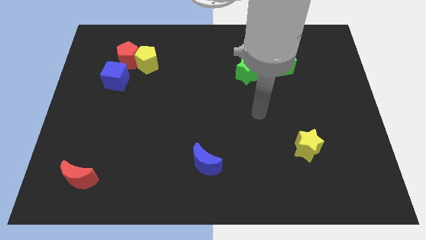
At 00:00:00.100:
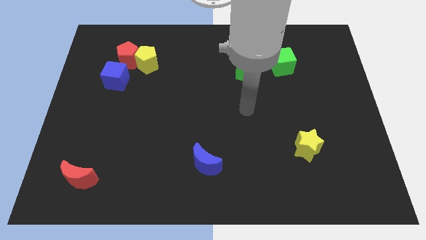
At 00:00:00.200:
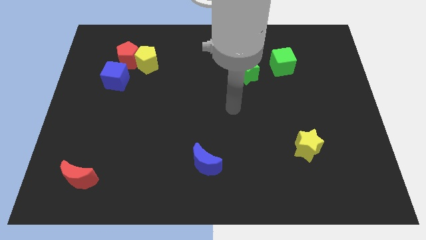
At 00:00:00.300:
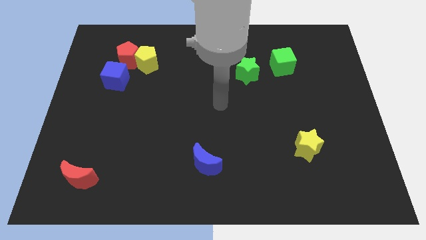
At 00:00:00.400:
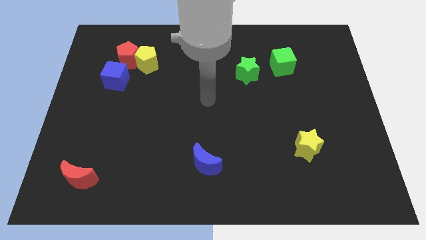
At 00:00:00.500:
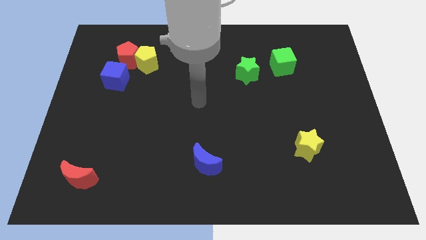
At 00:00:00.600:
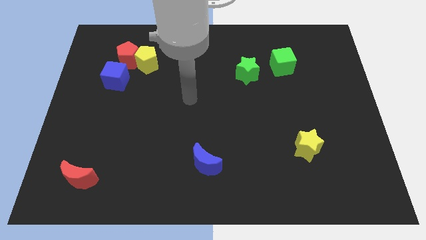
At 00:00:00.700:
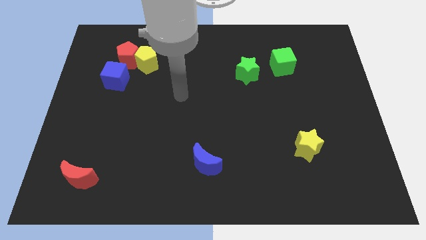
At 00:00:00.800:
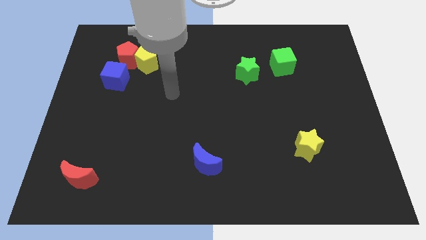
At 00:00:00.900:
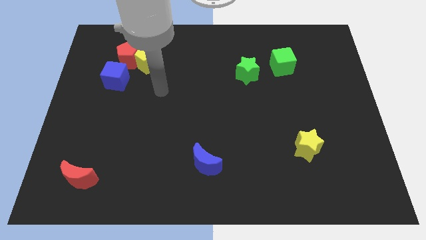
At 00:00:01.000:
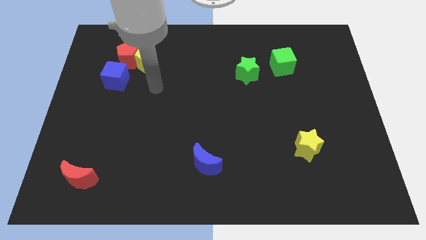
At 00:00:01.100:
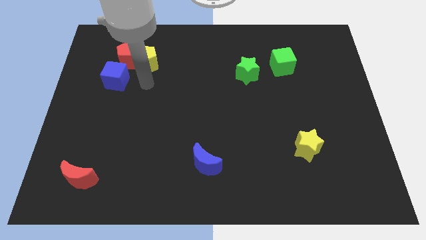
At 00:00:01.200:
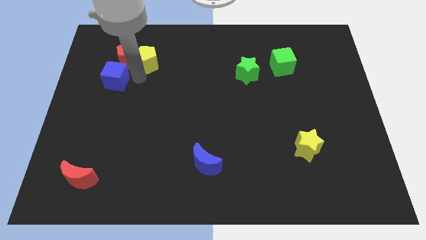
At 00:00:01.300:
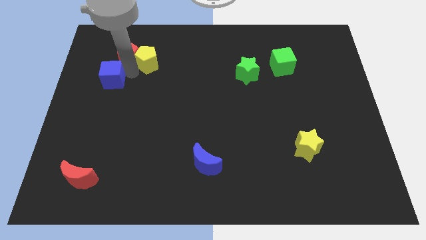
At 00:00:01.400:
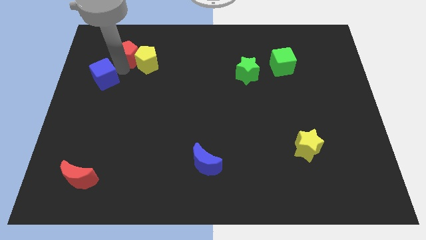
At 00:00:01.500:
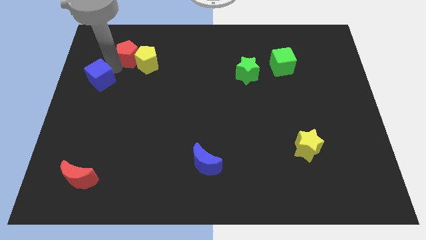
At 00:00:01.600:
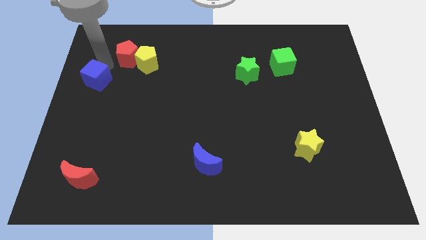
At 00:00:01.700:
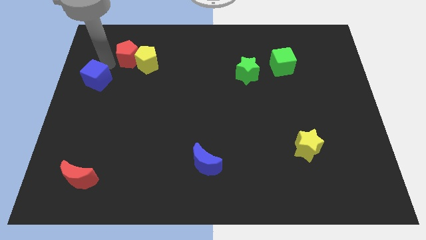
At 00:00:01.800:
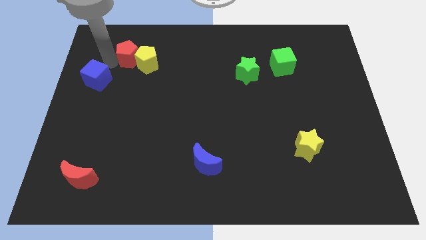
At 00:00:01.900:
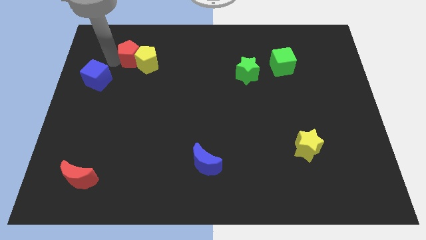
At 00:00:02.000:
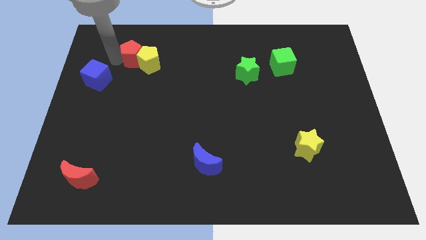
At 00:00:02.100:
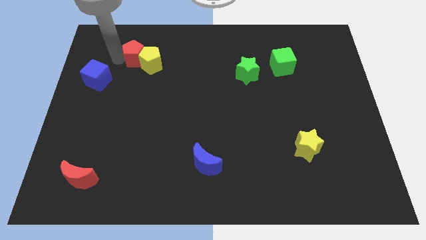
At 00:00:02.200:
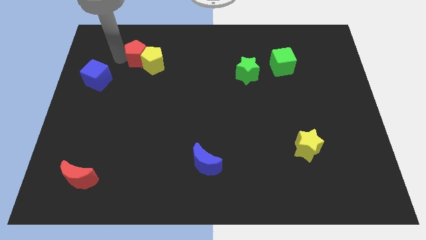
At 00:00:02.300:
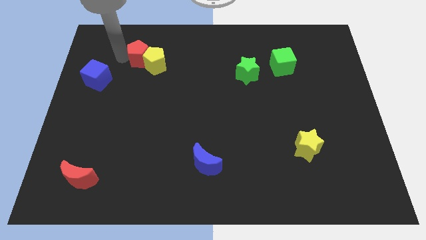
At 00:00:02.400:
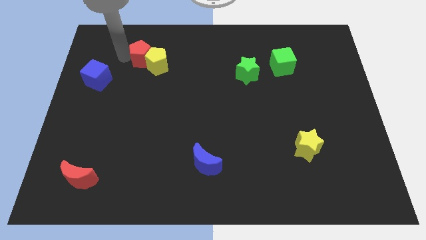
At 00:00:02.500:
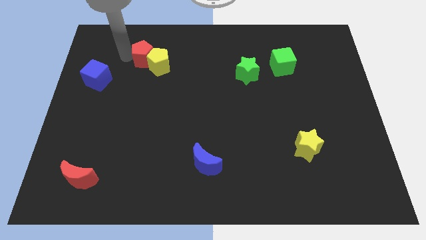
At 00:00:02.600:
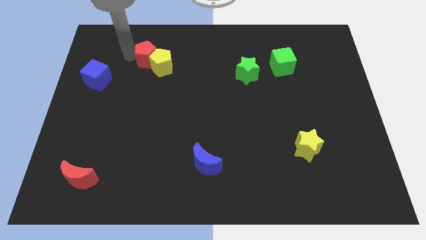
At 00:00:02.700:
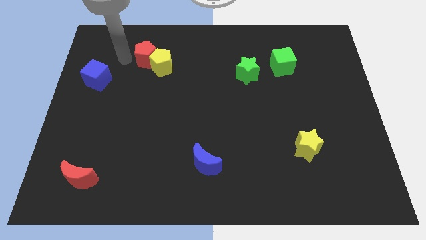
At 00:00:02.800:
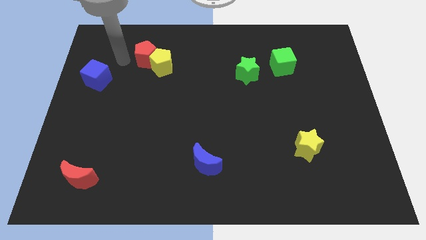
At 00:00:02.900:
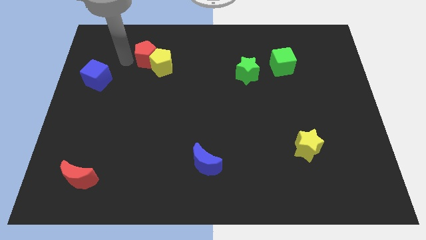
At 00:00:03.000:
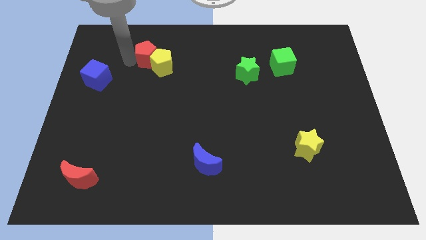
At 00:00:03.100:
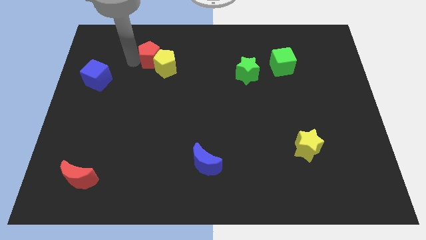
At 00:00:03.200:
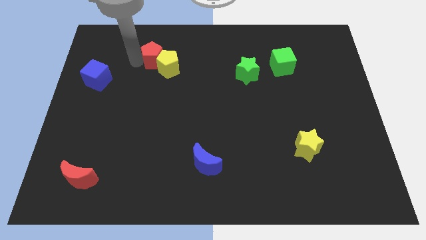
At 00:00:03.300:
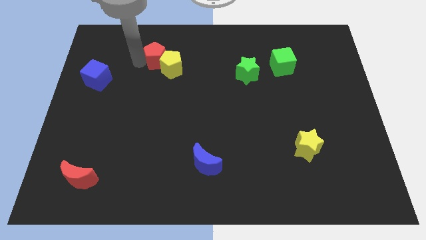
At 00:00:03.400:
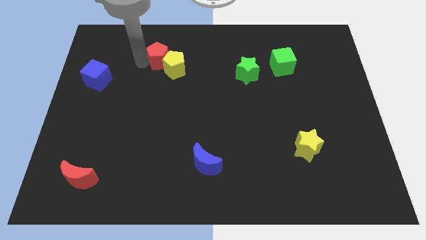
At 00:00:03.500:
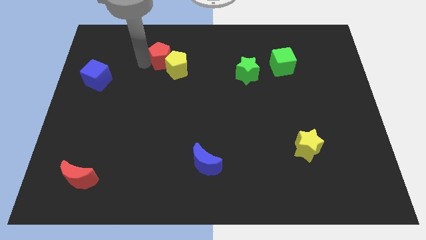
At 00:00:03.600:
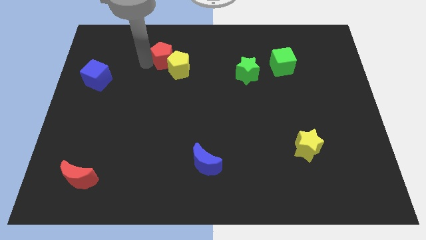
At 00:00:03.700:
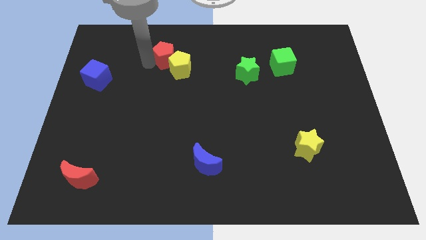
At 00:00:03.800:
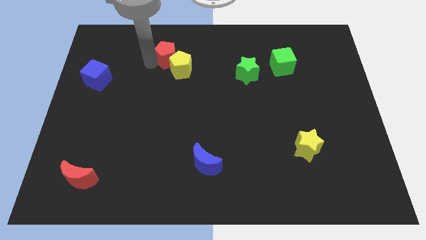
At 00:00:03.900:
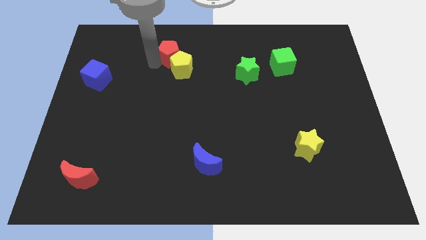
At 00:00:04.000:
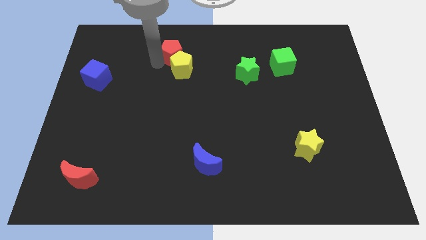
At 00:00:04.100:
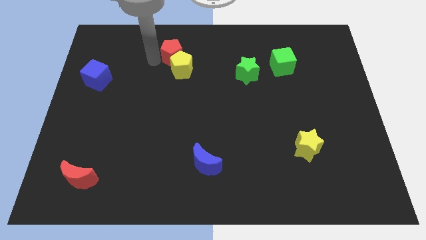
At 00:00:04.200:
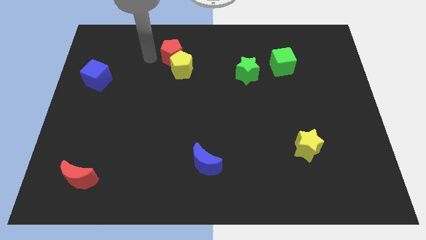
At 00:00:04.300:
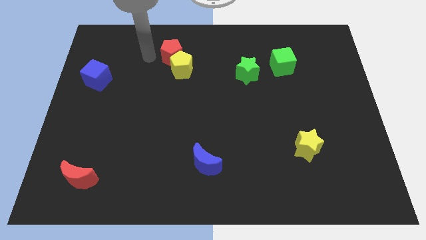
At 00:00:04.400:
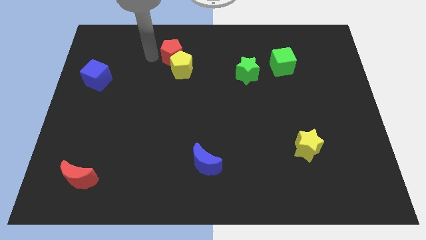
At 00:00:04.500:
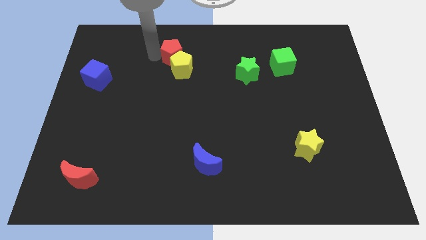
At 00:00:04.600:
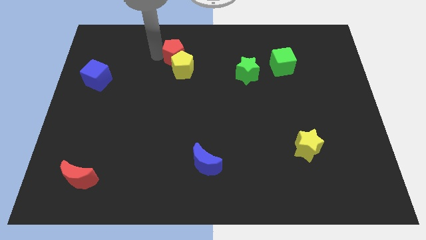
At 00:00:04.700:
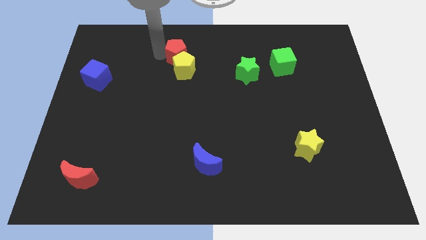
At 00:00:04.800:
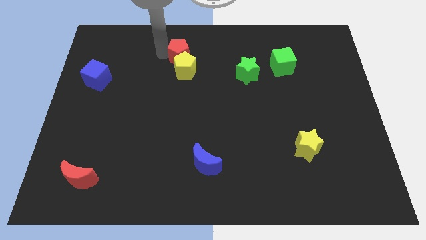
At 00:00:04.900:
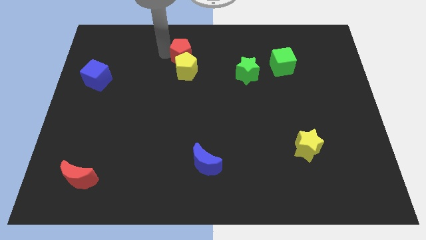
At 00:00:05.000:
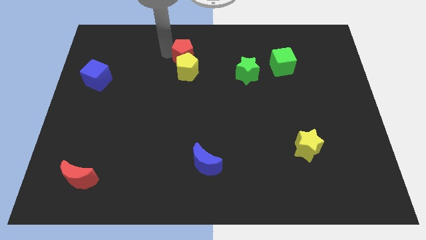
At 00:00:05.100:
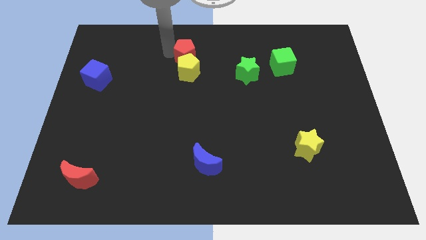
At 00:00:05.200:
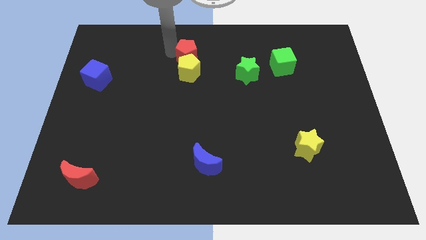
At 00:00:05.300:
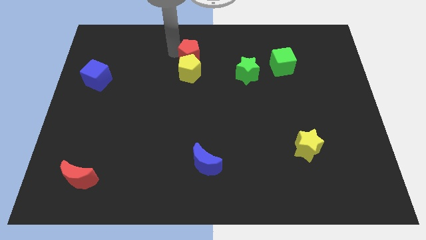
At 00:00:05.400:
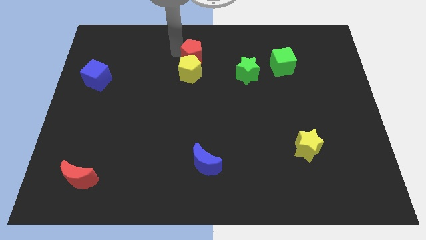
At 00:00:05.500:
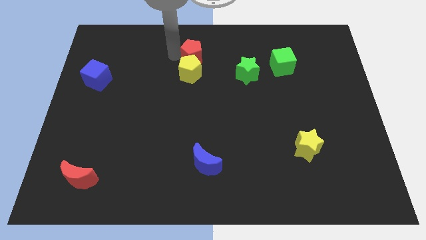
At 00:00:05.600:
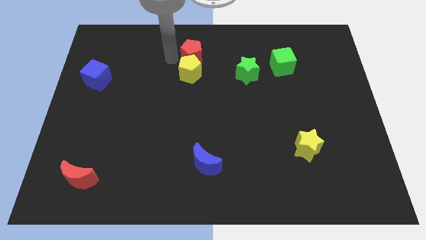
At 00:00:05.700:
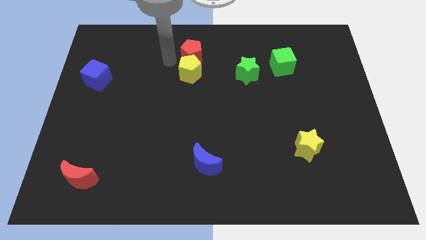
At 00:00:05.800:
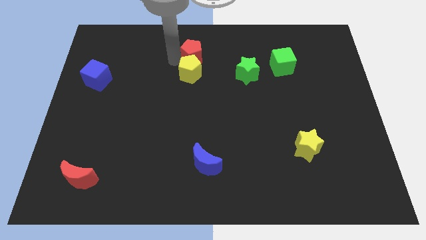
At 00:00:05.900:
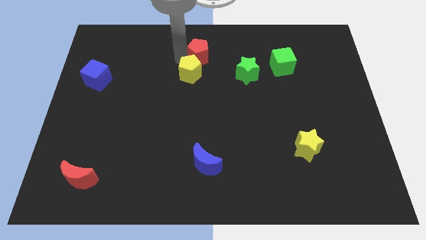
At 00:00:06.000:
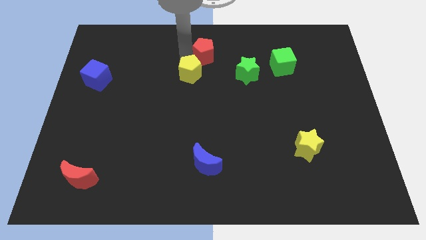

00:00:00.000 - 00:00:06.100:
push the red pentagon right

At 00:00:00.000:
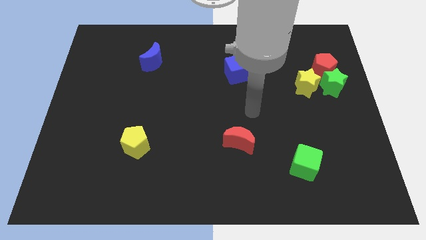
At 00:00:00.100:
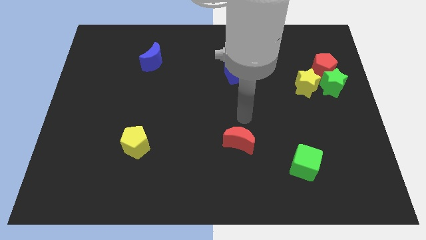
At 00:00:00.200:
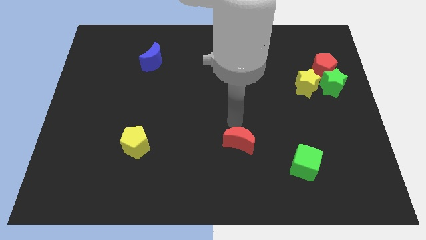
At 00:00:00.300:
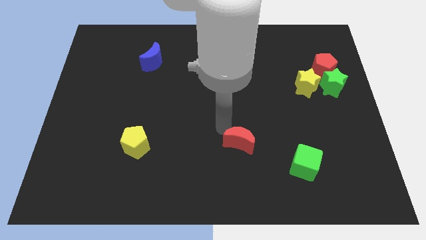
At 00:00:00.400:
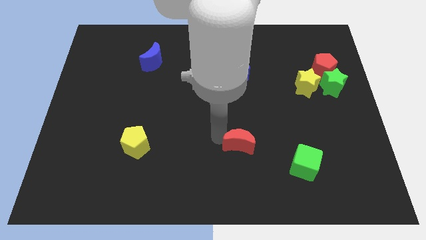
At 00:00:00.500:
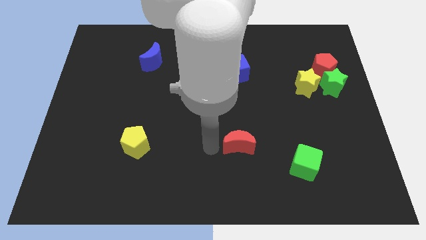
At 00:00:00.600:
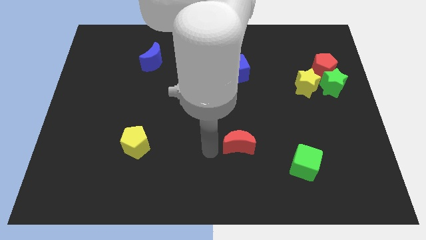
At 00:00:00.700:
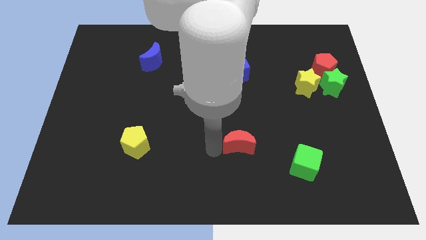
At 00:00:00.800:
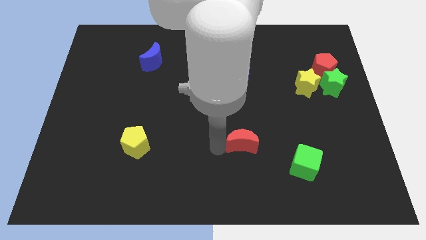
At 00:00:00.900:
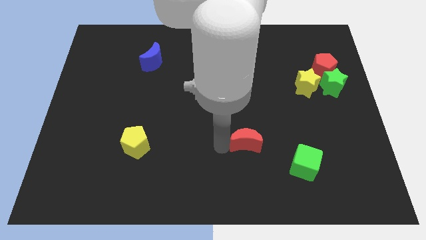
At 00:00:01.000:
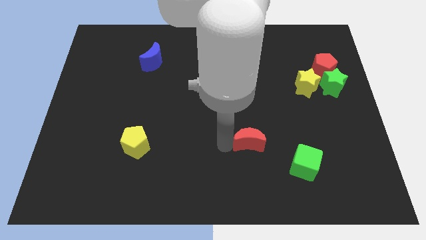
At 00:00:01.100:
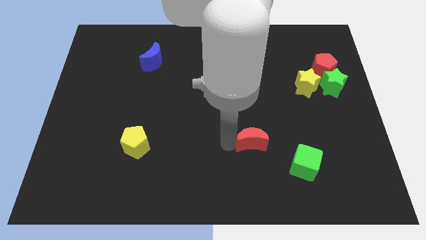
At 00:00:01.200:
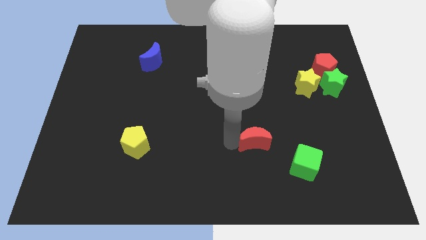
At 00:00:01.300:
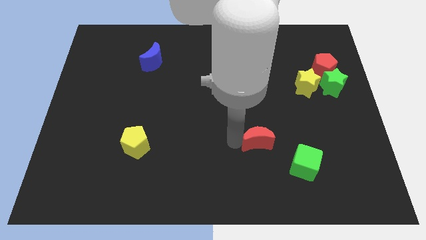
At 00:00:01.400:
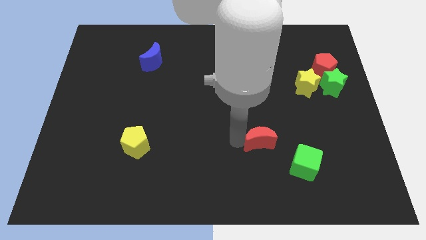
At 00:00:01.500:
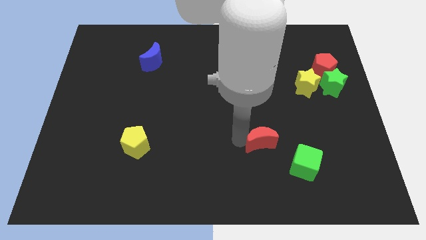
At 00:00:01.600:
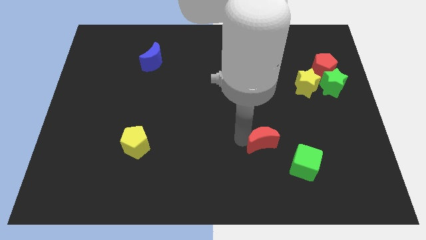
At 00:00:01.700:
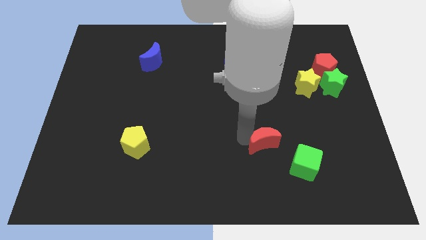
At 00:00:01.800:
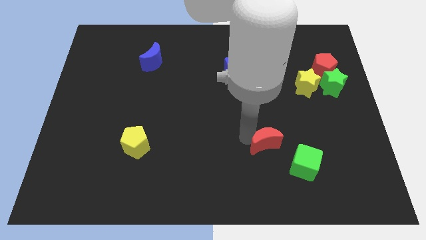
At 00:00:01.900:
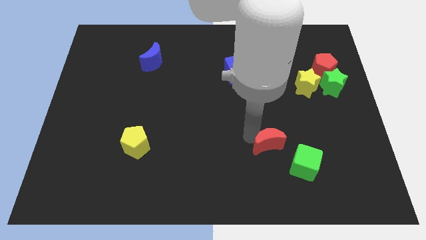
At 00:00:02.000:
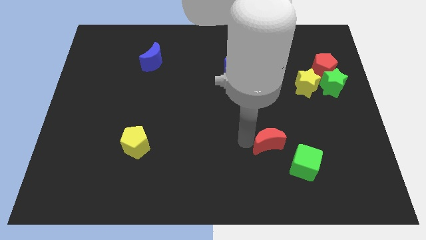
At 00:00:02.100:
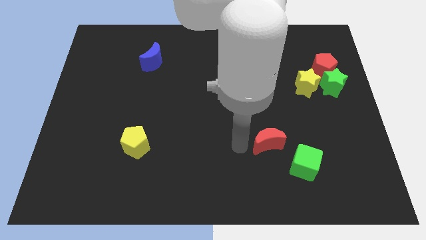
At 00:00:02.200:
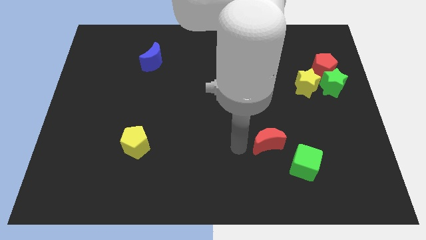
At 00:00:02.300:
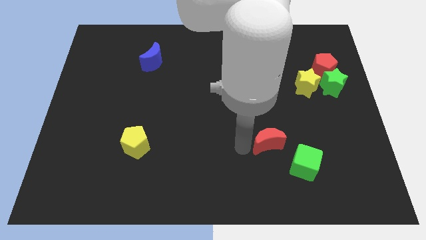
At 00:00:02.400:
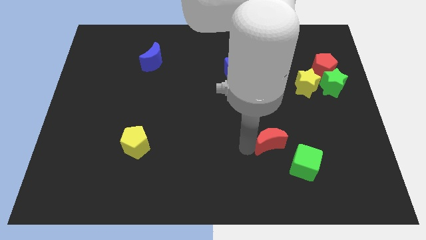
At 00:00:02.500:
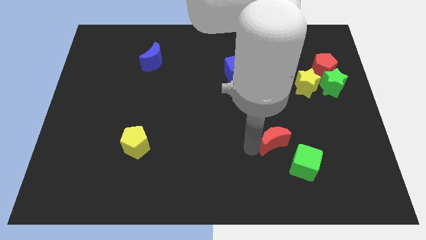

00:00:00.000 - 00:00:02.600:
move the red moon right slightly
